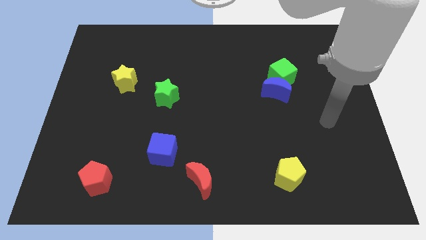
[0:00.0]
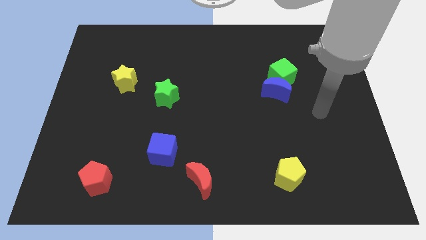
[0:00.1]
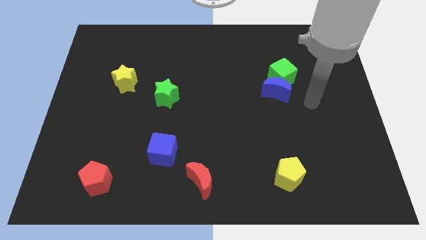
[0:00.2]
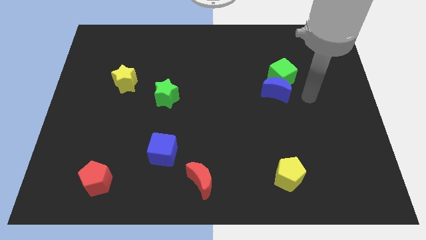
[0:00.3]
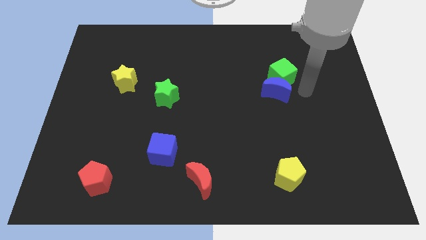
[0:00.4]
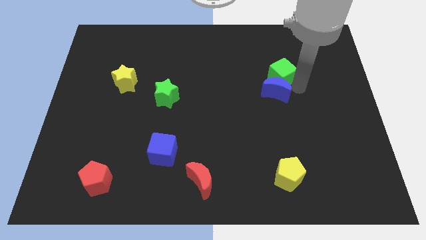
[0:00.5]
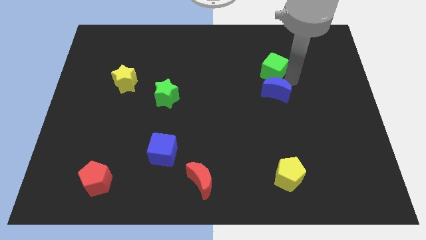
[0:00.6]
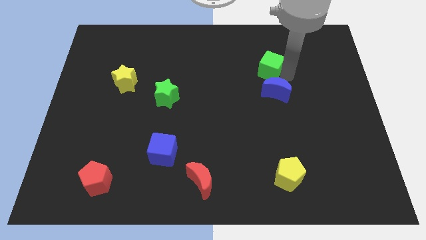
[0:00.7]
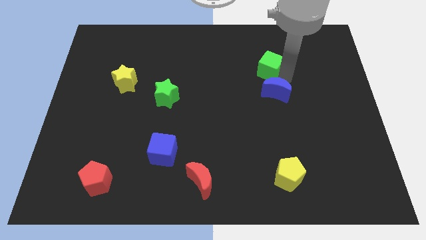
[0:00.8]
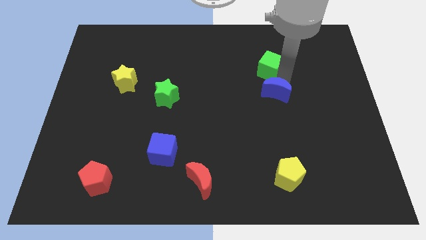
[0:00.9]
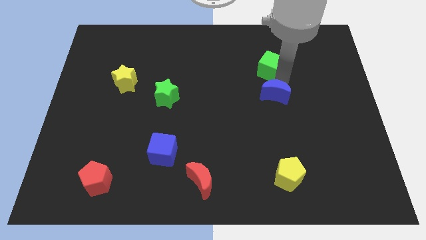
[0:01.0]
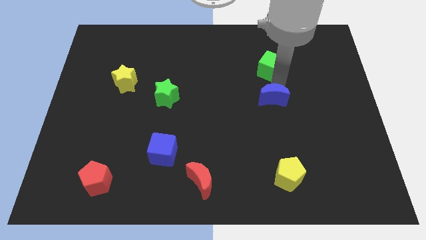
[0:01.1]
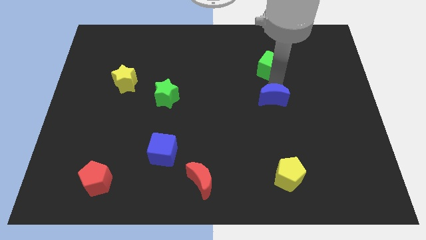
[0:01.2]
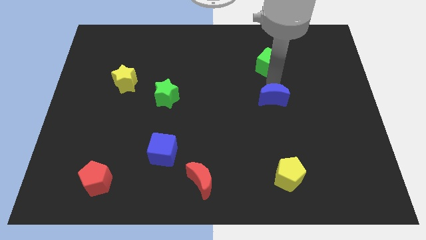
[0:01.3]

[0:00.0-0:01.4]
pull the blue moon apart from the green cube

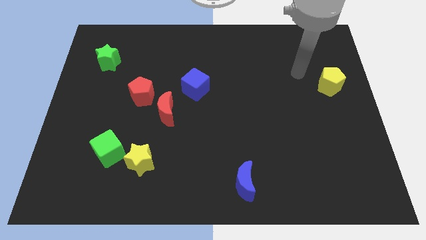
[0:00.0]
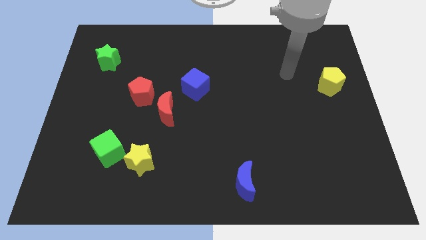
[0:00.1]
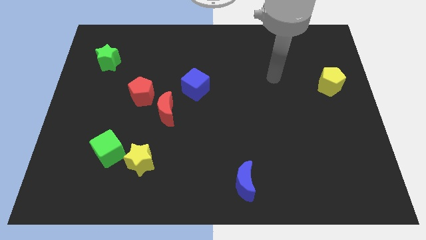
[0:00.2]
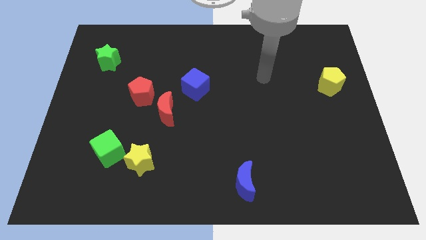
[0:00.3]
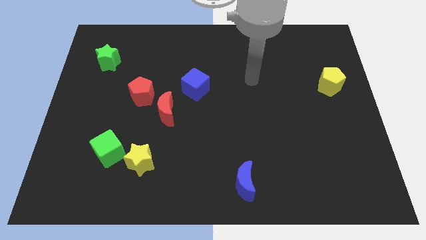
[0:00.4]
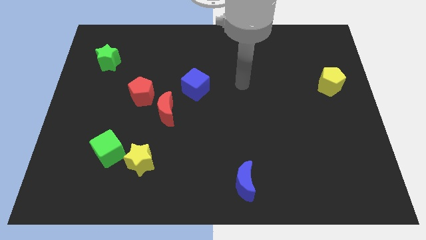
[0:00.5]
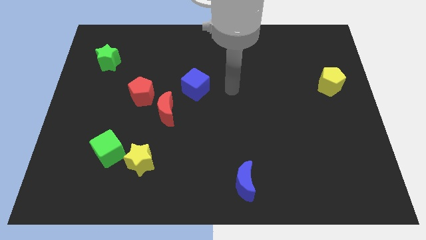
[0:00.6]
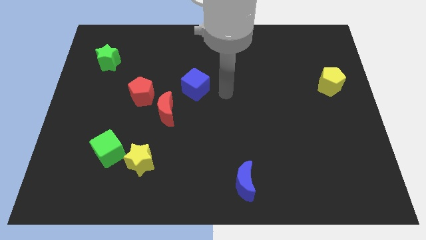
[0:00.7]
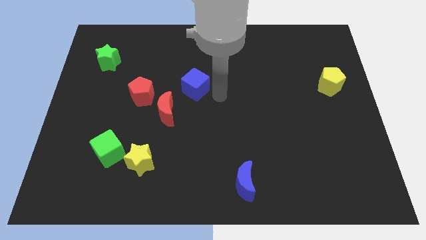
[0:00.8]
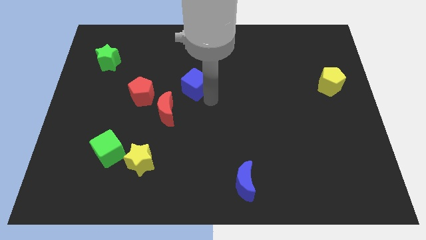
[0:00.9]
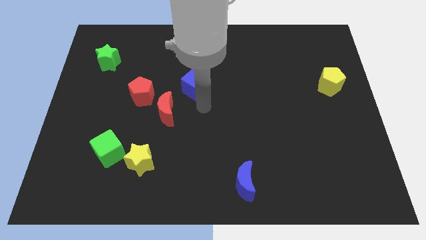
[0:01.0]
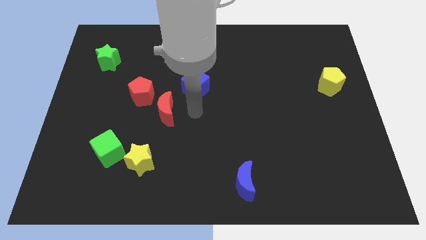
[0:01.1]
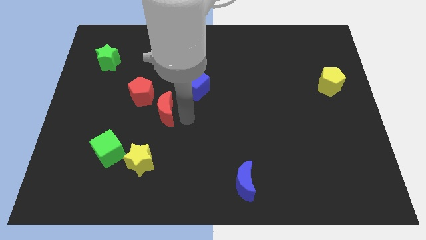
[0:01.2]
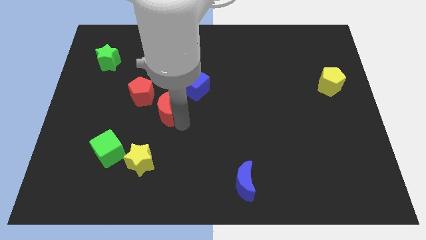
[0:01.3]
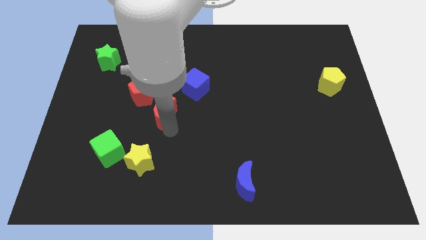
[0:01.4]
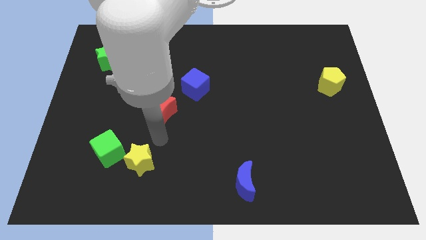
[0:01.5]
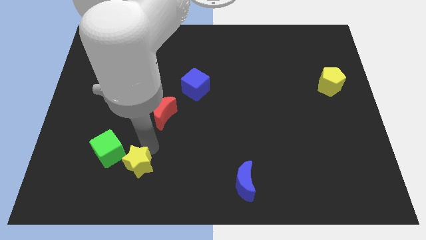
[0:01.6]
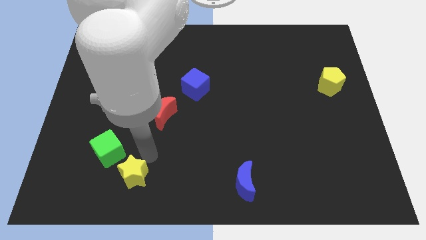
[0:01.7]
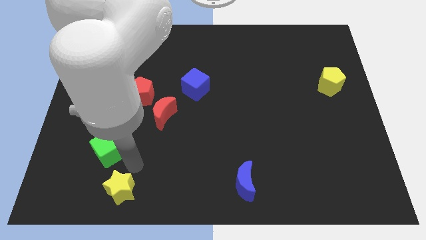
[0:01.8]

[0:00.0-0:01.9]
separate the green cube from the yellow star

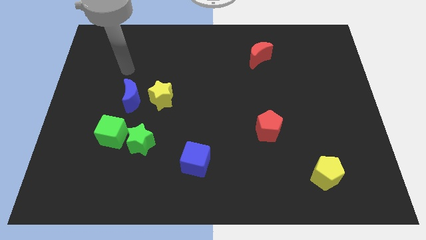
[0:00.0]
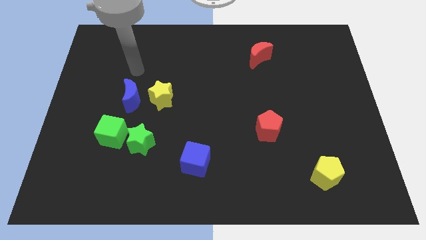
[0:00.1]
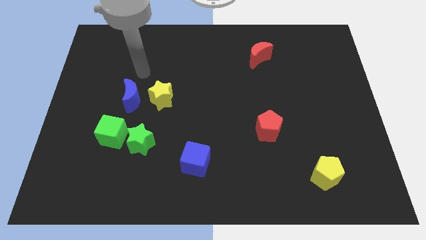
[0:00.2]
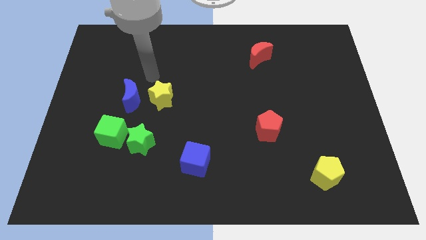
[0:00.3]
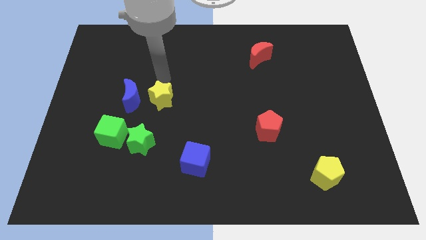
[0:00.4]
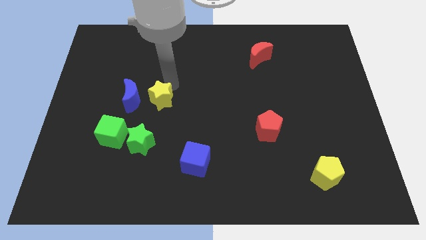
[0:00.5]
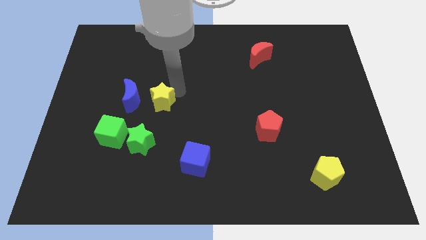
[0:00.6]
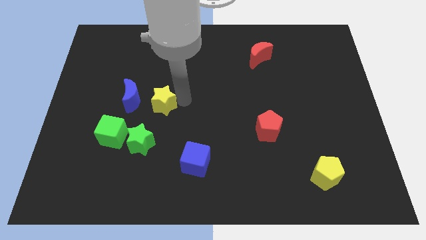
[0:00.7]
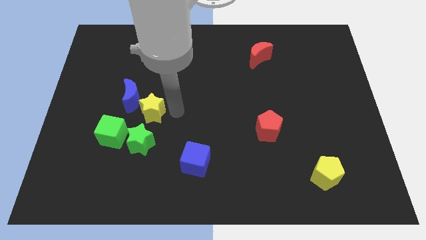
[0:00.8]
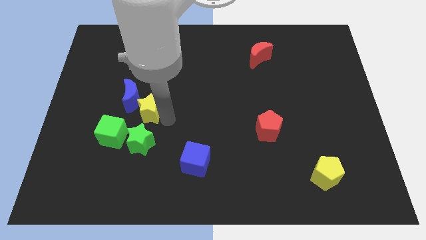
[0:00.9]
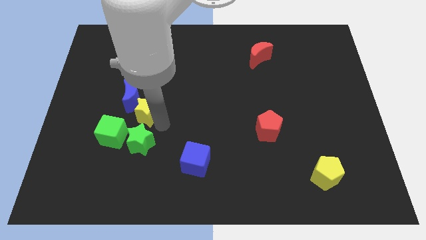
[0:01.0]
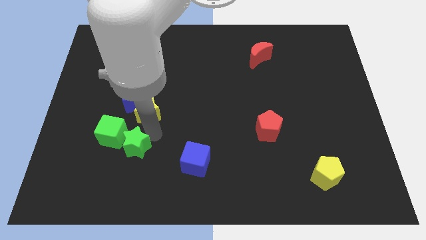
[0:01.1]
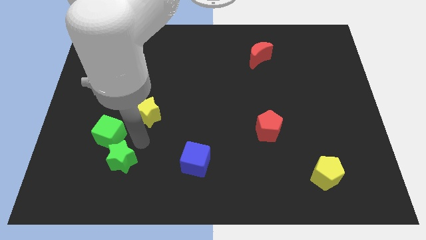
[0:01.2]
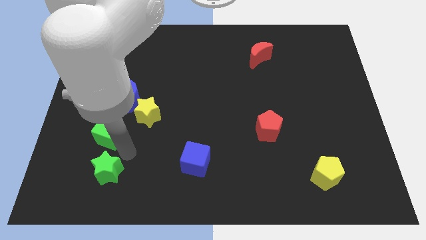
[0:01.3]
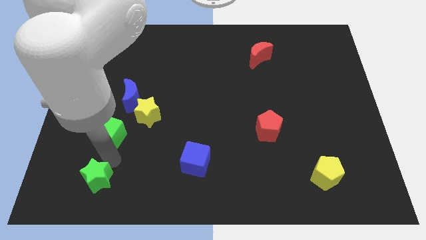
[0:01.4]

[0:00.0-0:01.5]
pull the green cube apart from the green star

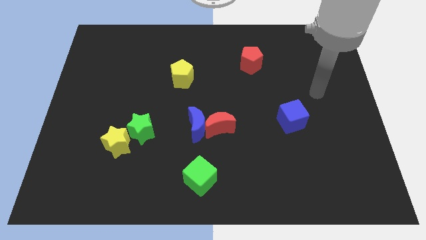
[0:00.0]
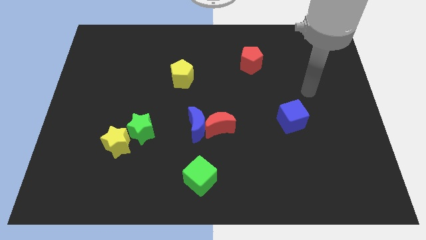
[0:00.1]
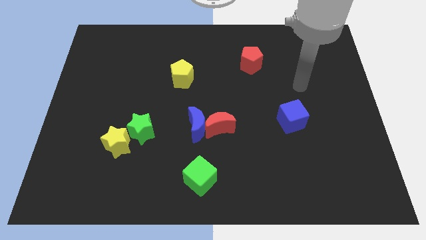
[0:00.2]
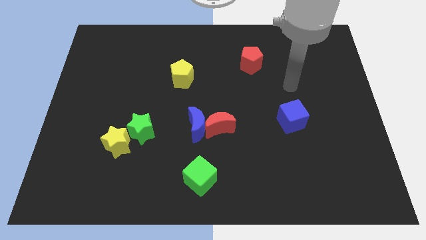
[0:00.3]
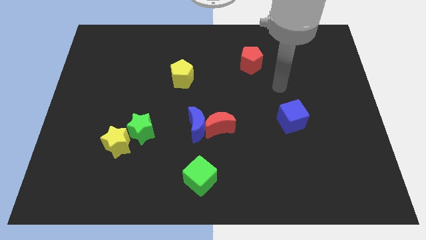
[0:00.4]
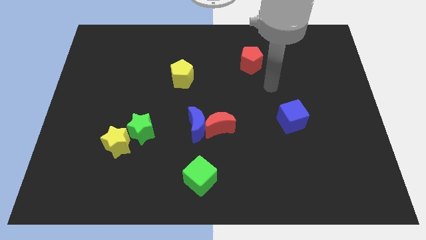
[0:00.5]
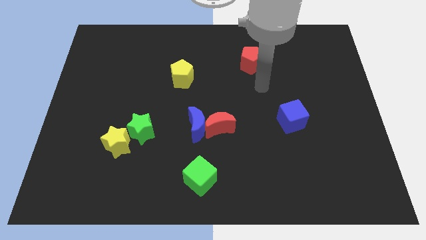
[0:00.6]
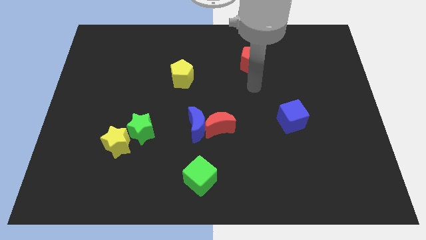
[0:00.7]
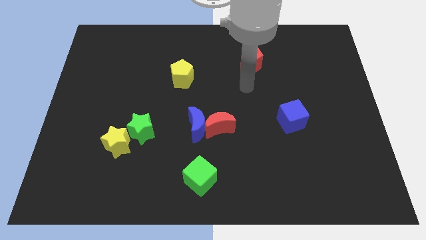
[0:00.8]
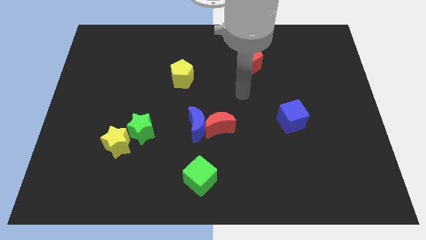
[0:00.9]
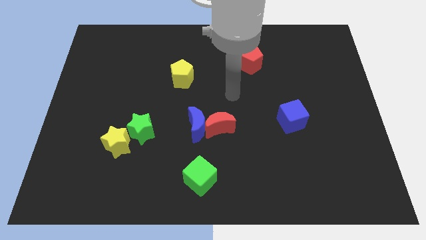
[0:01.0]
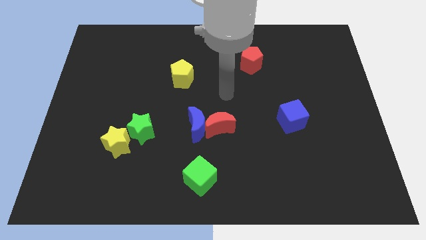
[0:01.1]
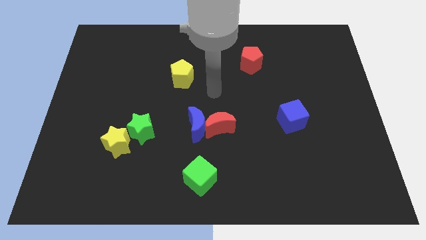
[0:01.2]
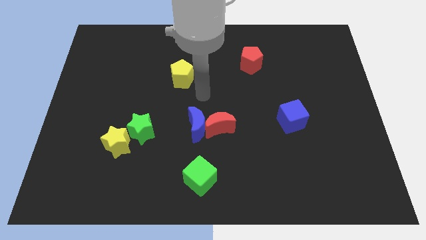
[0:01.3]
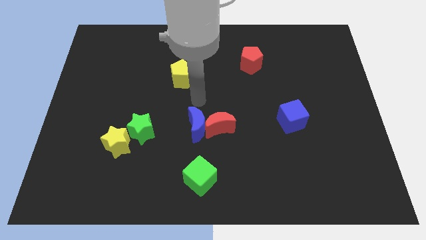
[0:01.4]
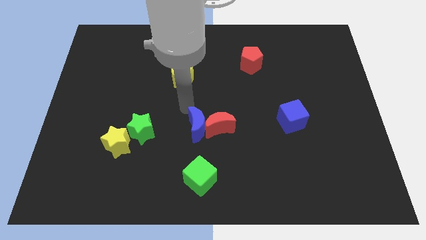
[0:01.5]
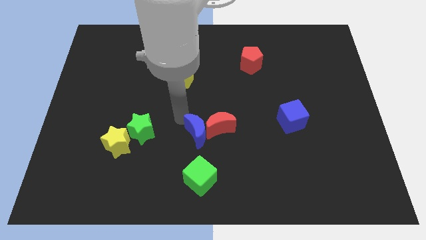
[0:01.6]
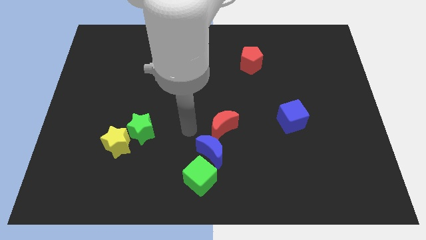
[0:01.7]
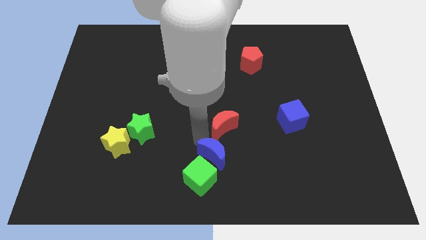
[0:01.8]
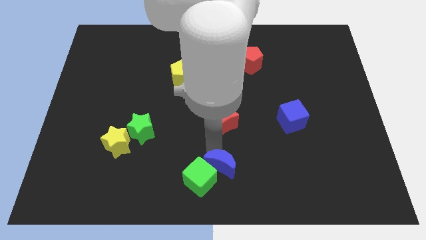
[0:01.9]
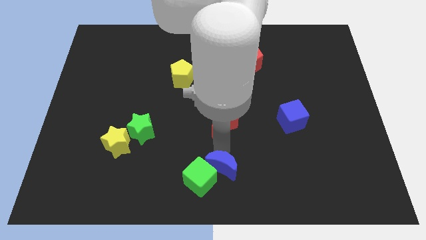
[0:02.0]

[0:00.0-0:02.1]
pull the red moon apart from the blue moon

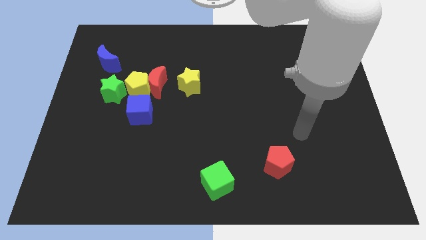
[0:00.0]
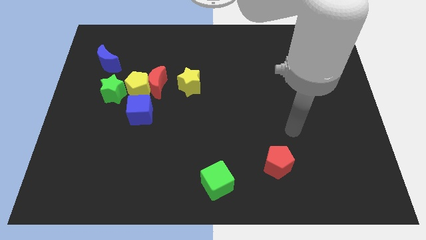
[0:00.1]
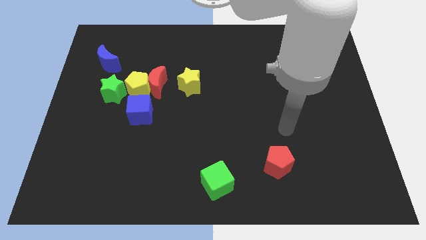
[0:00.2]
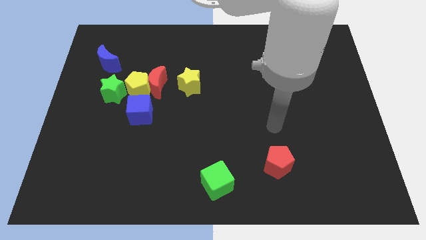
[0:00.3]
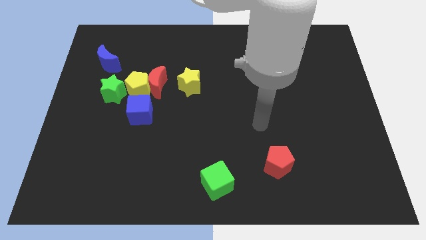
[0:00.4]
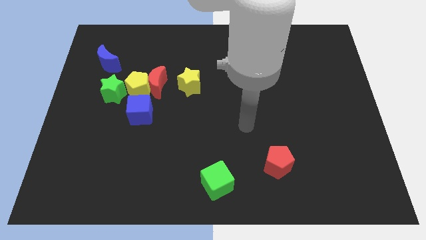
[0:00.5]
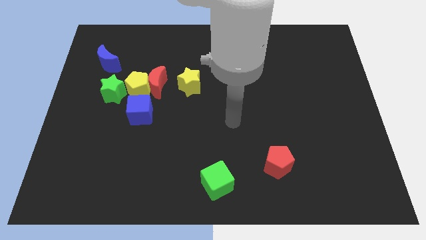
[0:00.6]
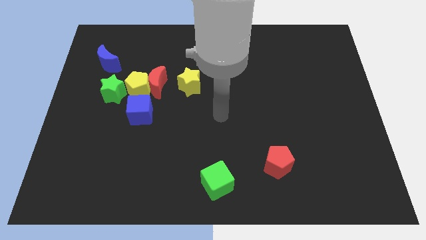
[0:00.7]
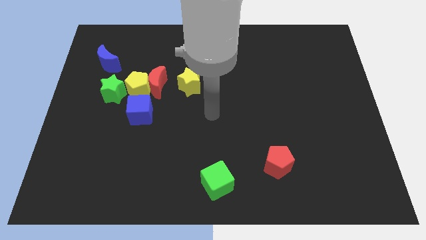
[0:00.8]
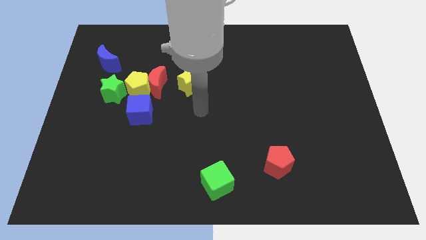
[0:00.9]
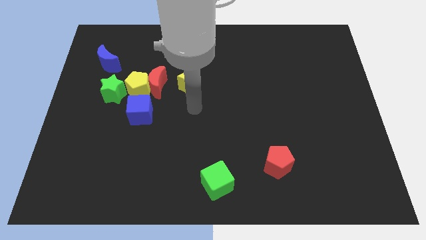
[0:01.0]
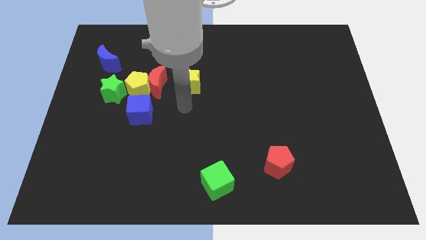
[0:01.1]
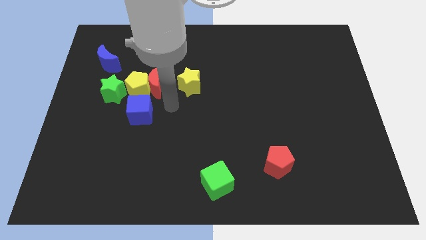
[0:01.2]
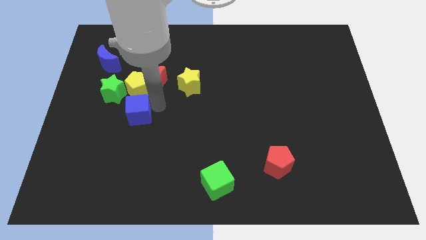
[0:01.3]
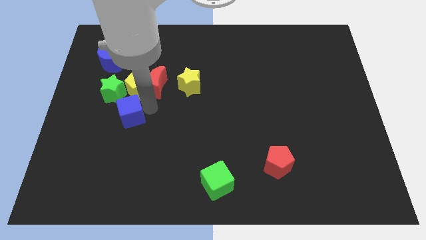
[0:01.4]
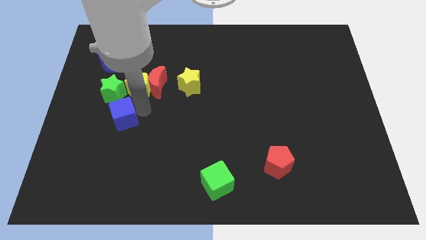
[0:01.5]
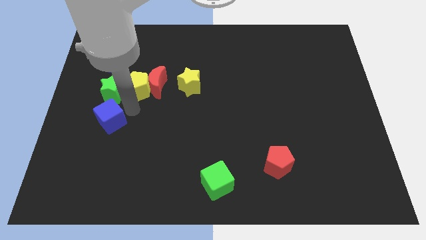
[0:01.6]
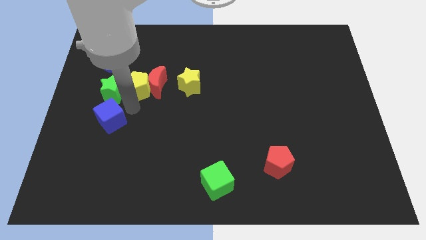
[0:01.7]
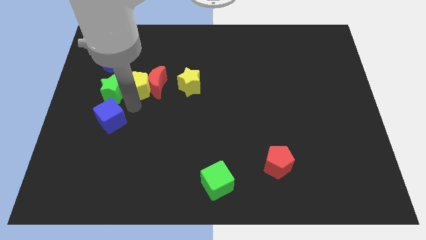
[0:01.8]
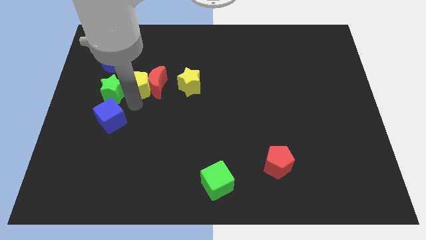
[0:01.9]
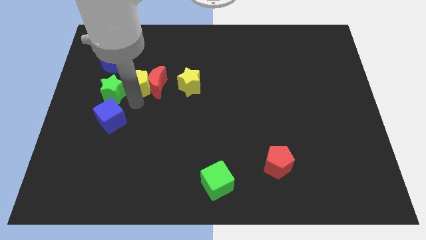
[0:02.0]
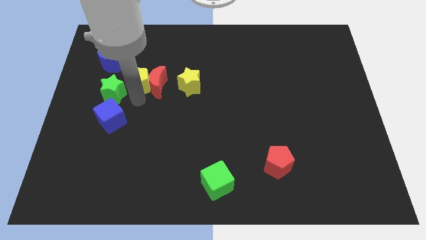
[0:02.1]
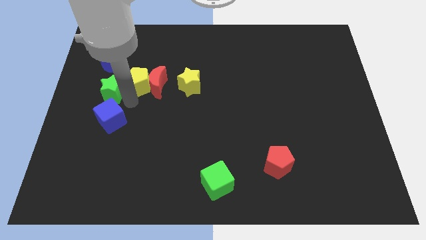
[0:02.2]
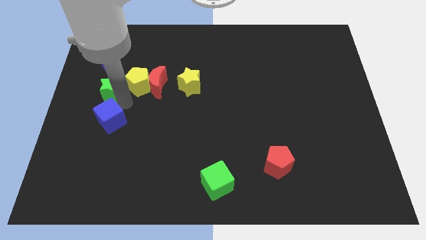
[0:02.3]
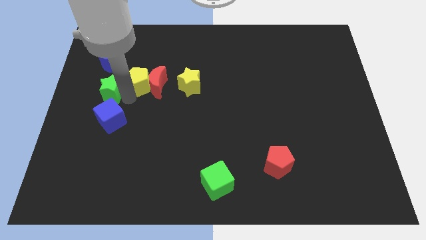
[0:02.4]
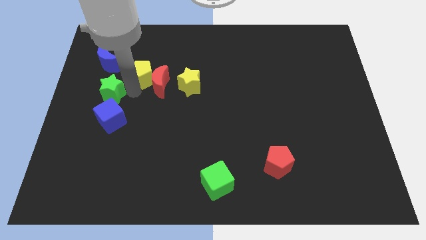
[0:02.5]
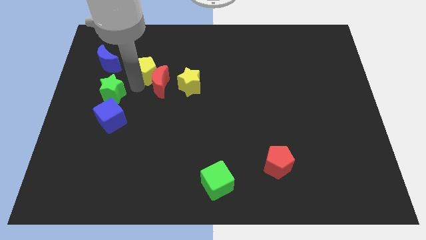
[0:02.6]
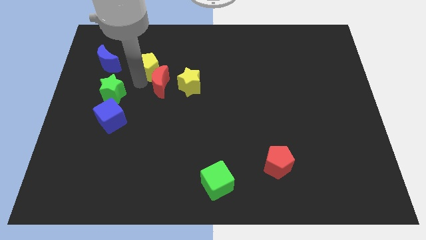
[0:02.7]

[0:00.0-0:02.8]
move the yellow pentagon away from the group of blocks
